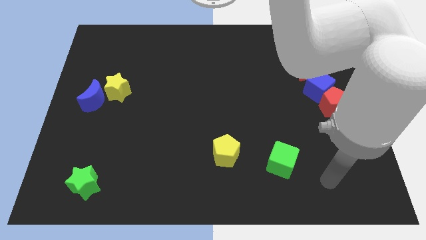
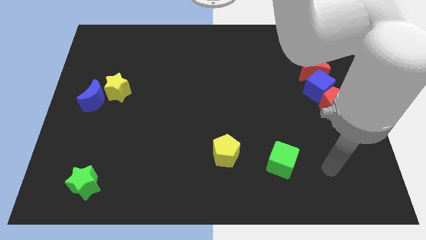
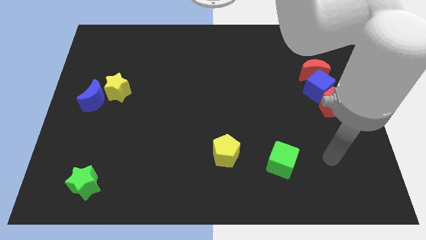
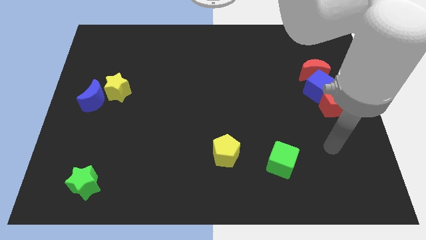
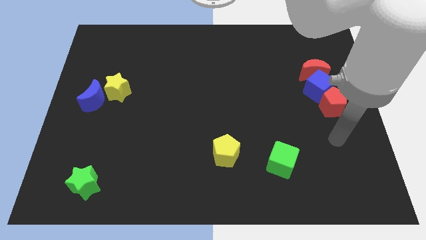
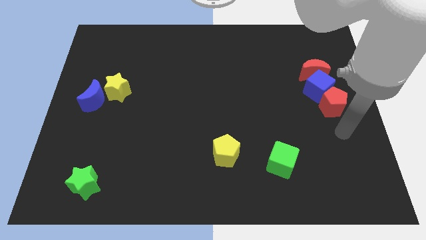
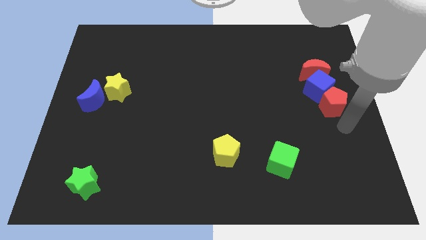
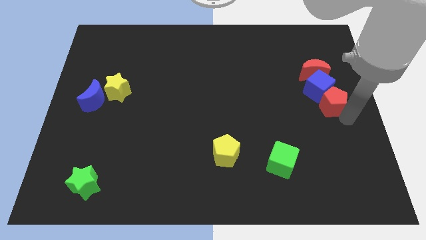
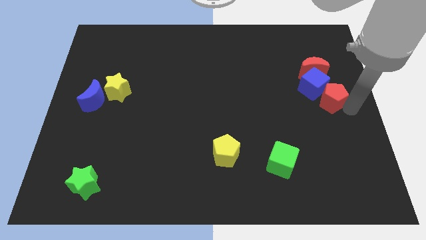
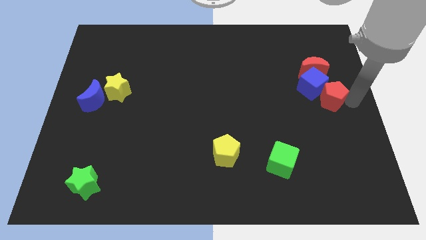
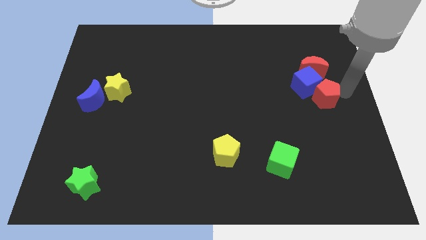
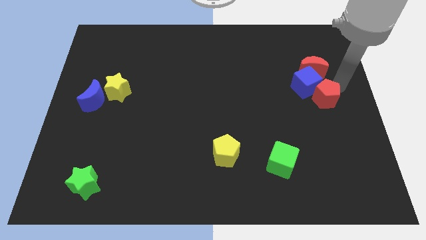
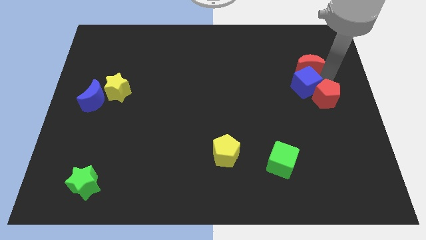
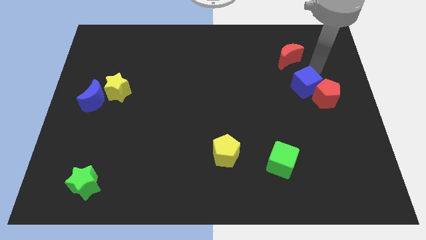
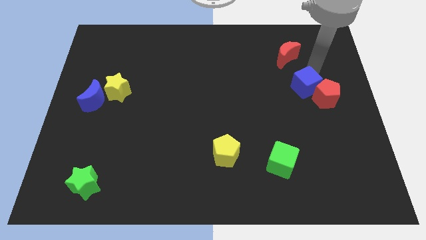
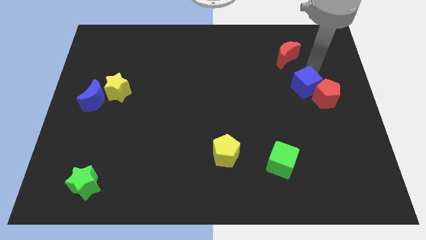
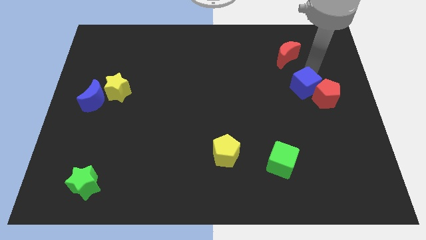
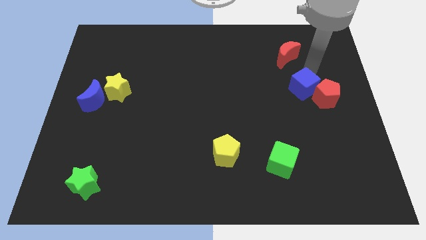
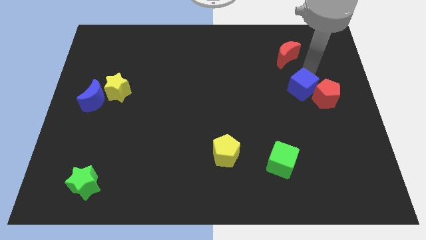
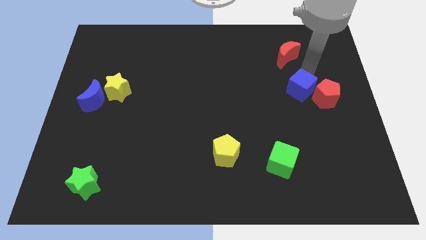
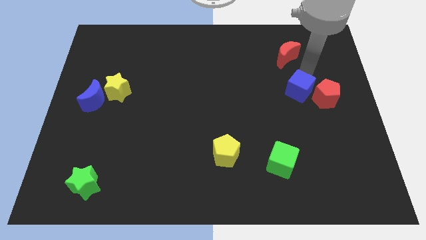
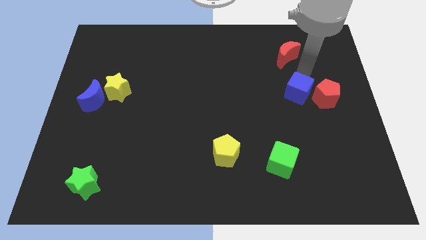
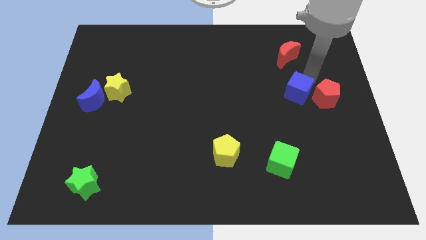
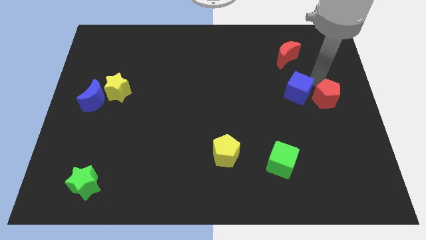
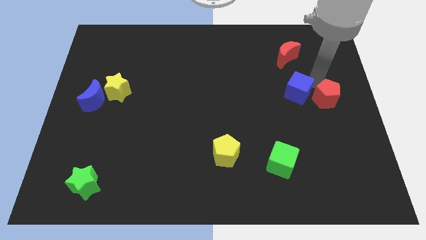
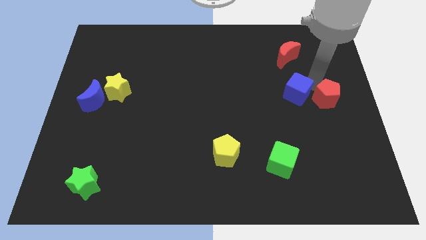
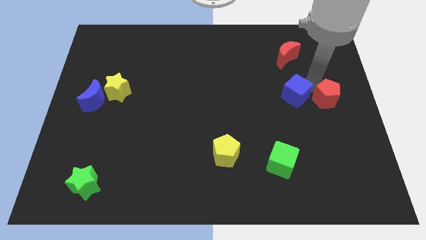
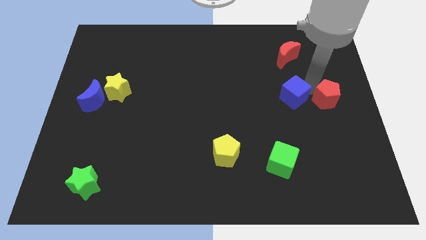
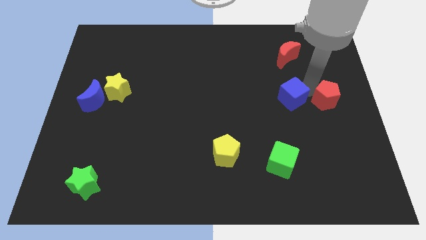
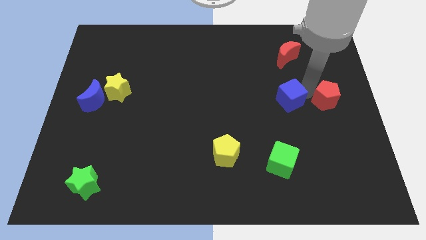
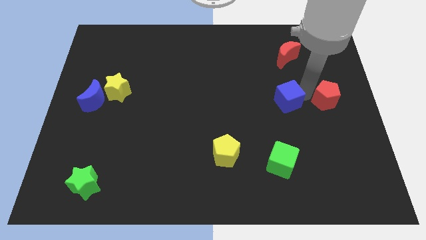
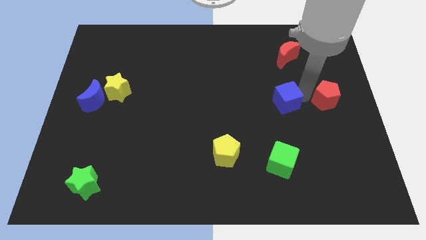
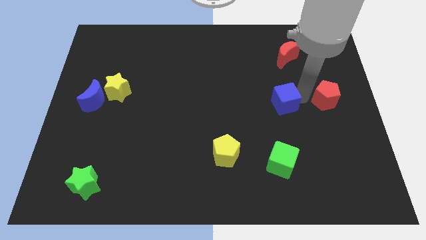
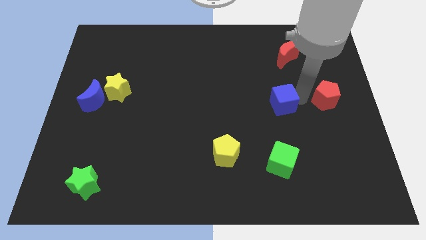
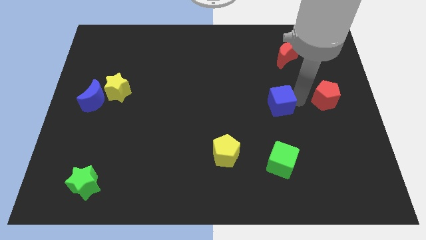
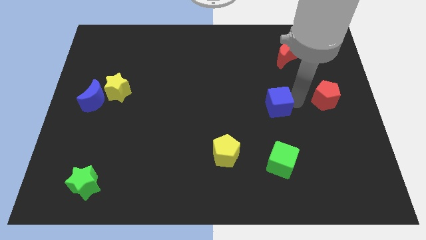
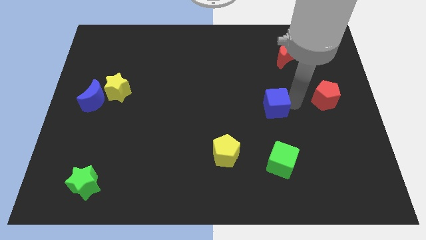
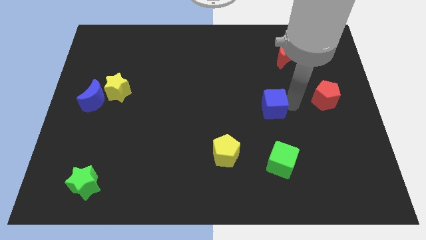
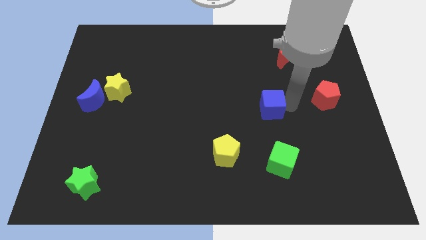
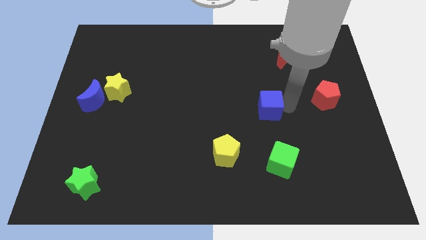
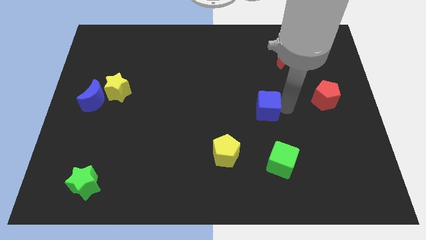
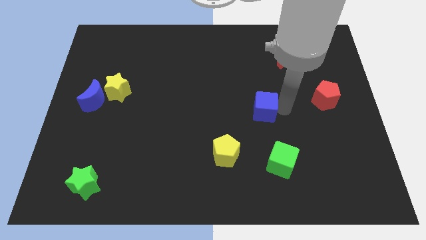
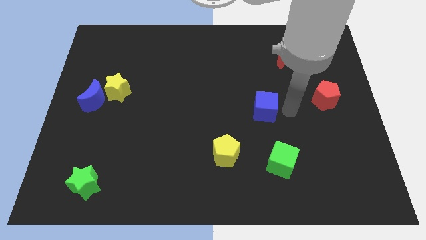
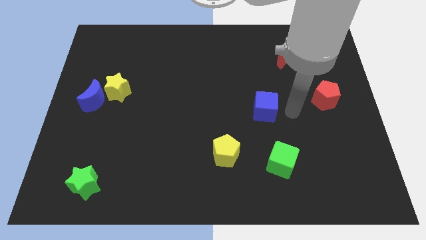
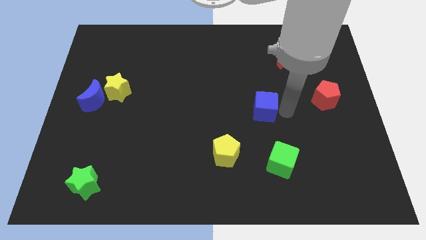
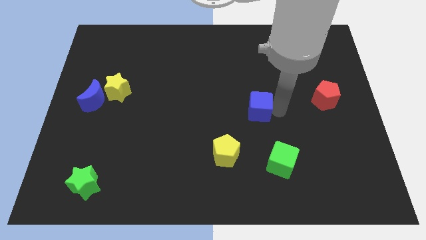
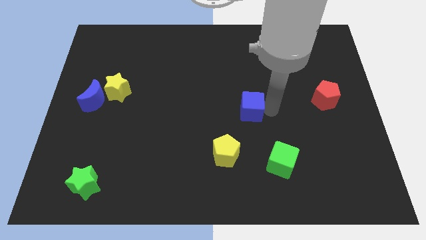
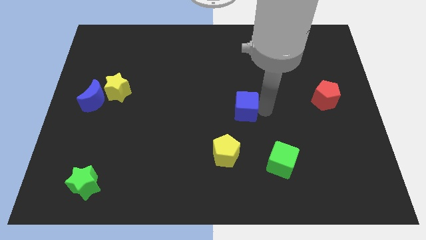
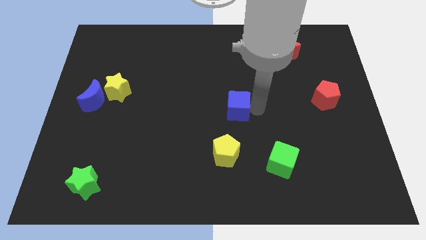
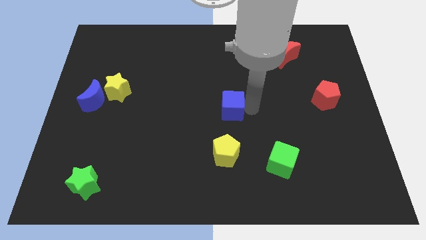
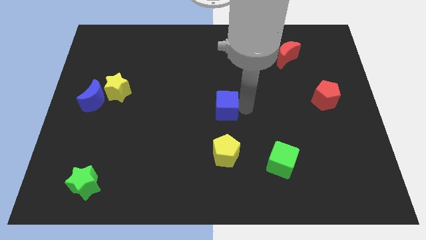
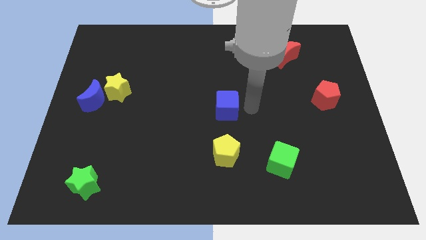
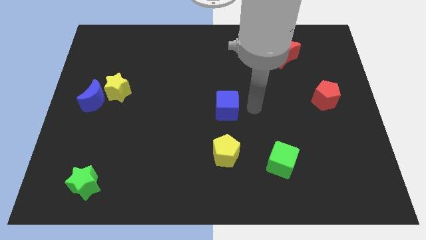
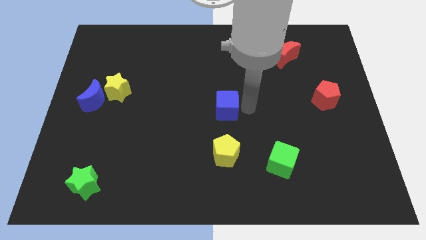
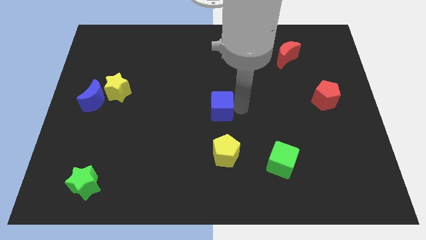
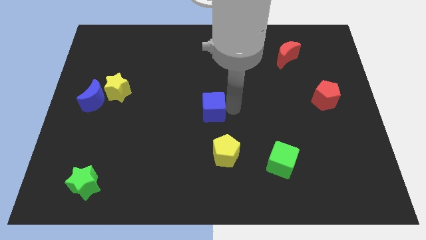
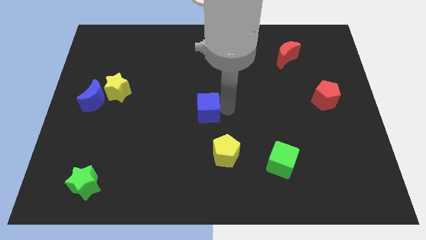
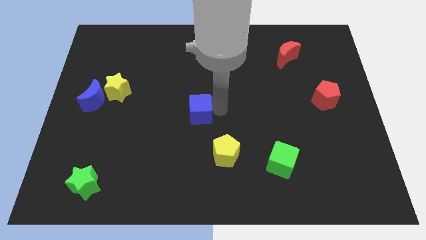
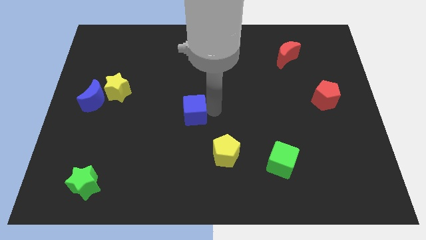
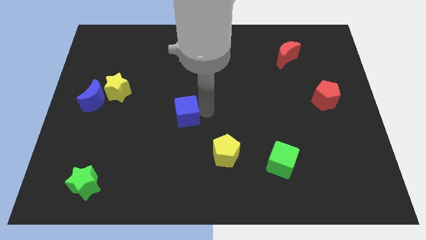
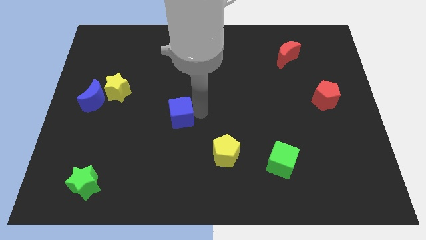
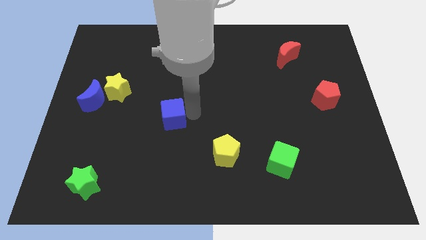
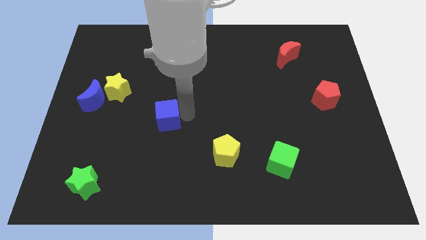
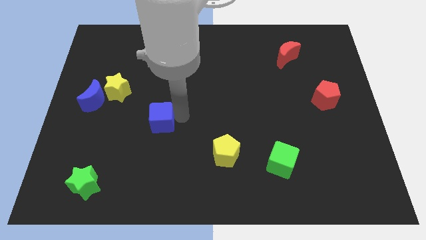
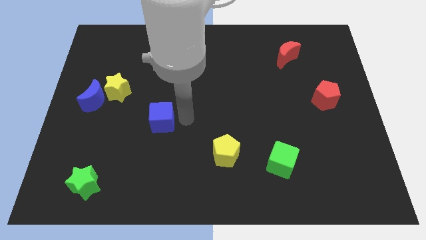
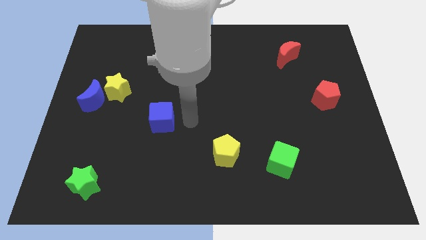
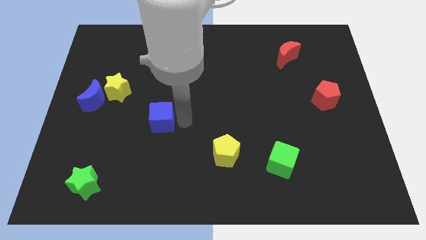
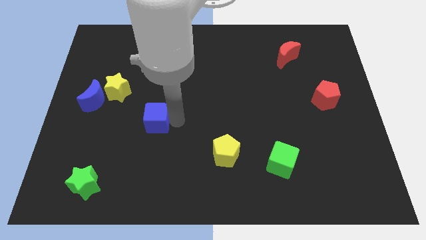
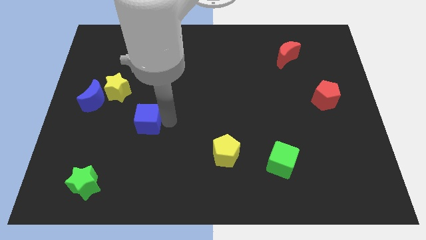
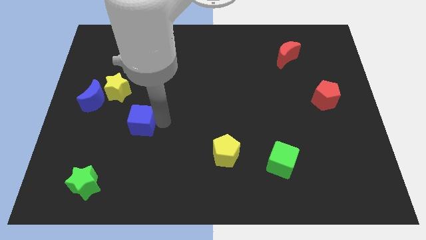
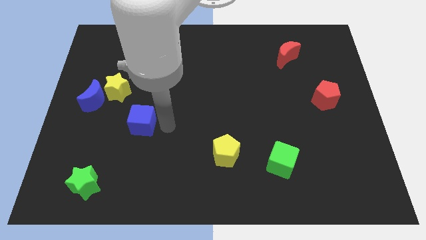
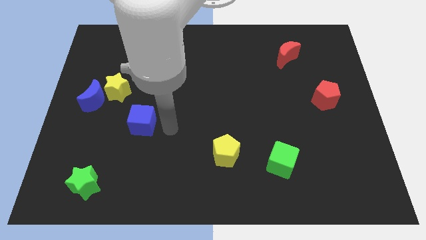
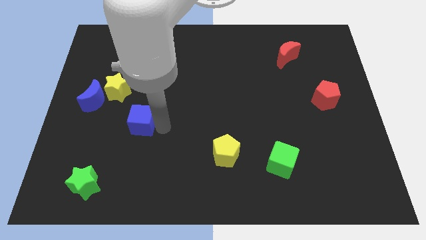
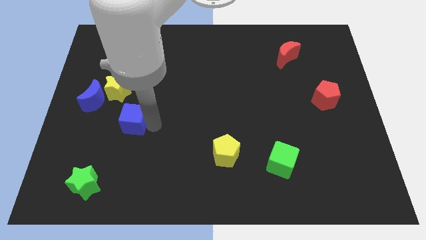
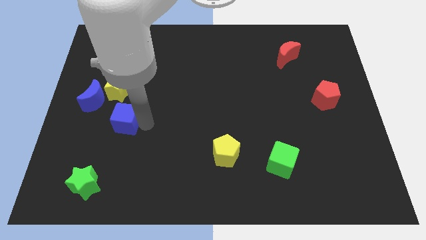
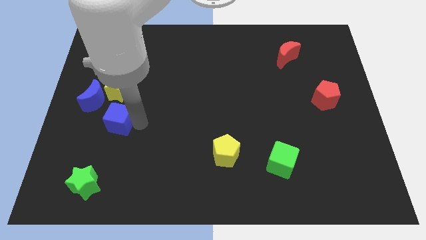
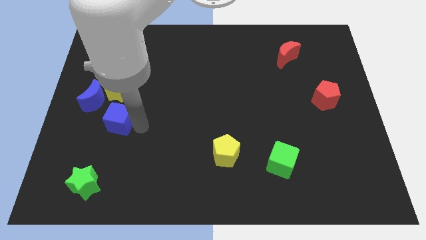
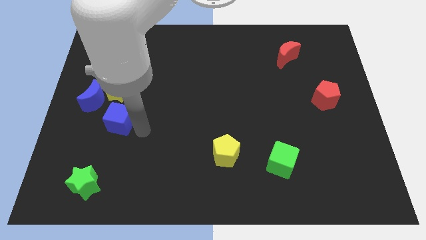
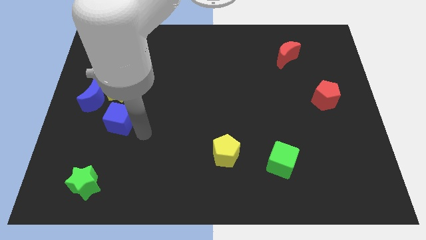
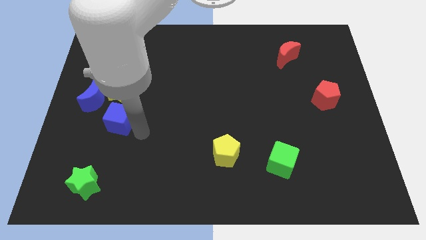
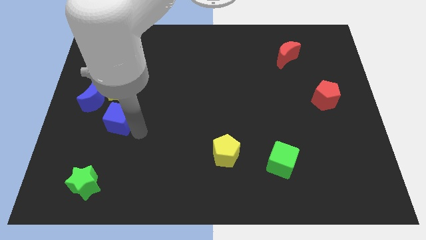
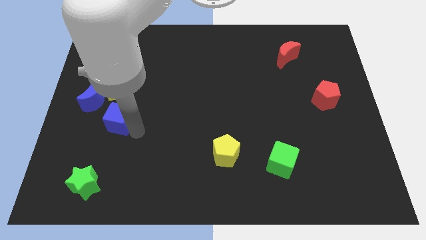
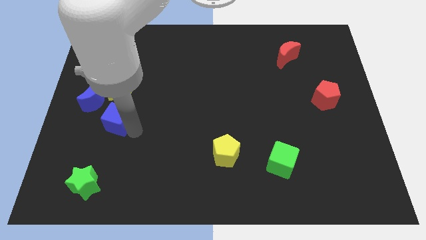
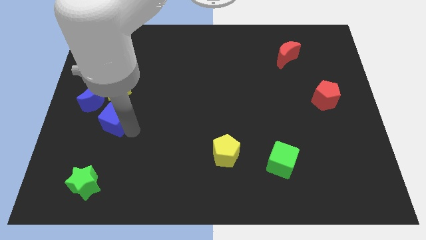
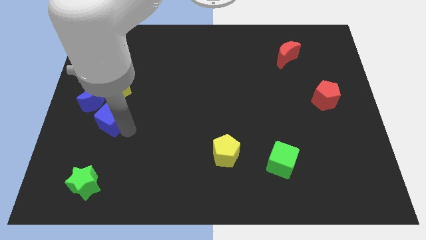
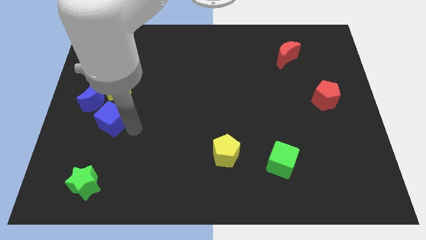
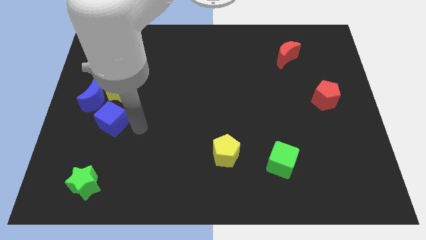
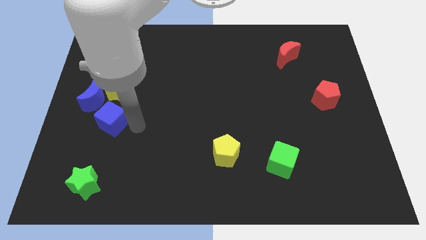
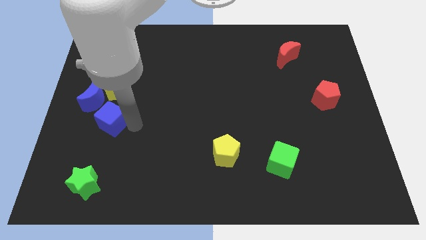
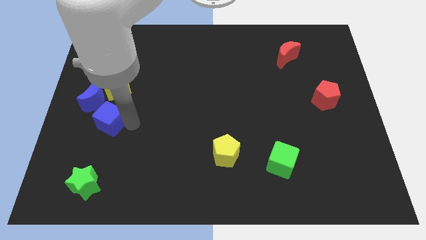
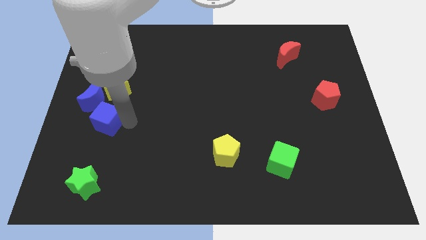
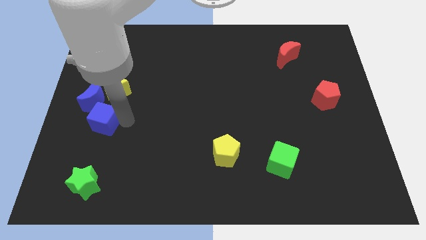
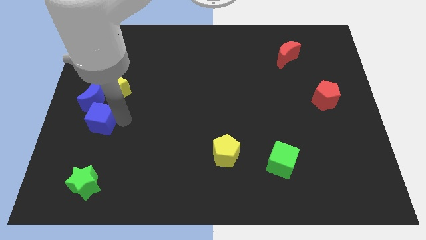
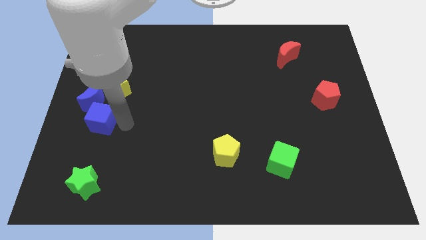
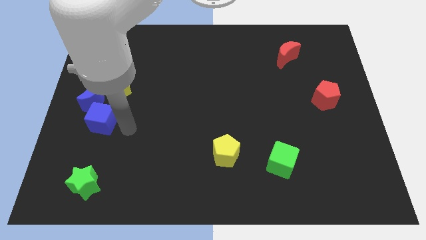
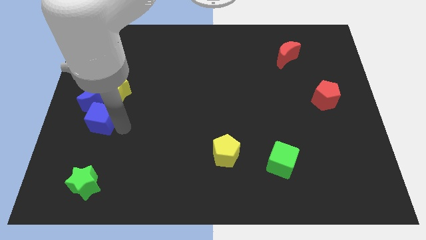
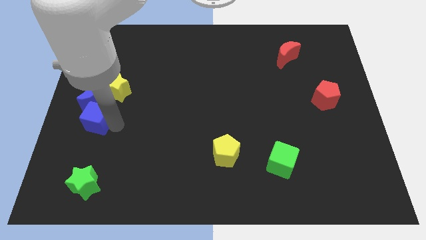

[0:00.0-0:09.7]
slide the blue cube to the left side of the board
